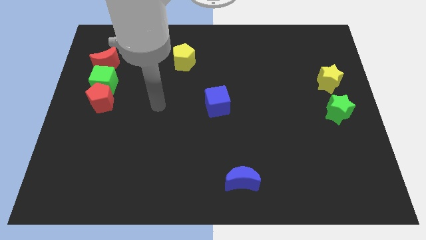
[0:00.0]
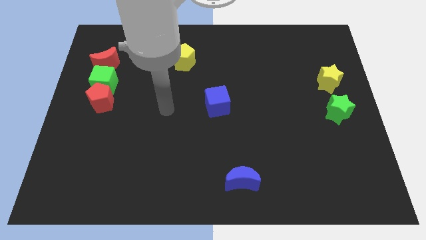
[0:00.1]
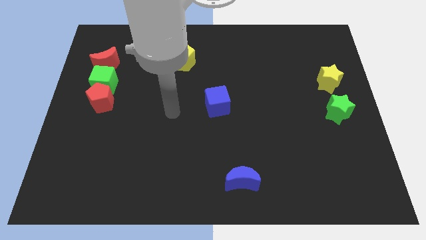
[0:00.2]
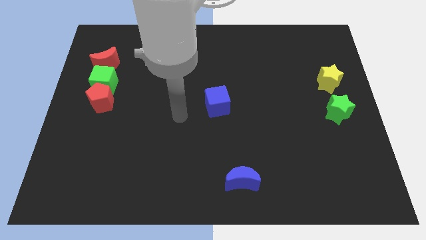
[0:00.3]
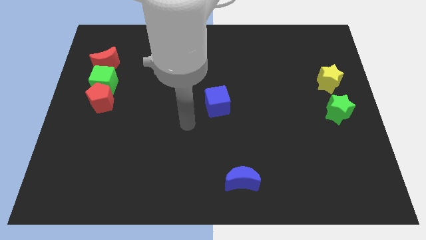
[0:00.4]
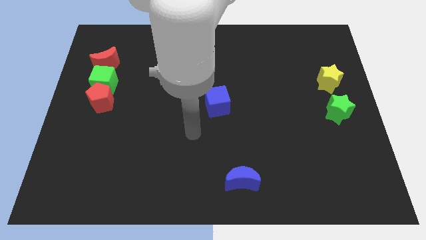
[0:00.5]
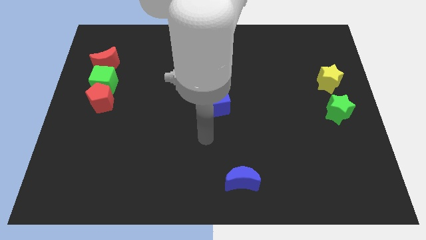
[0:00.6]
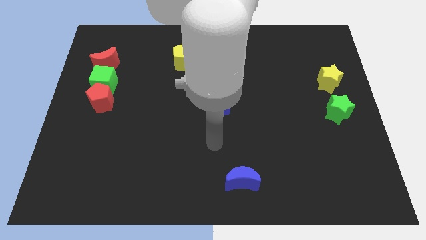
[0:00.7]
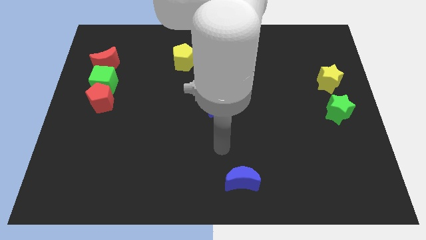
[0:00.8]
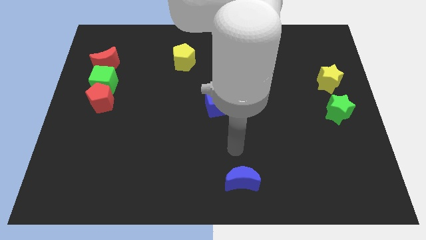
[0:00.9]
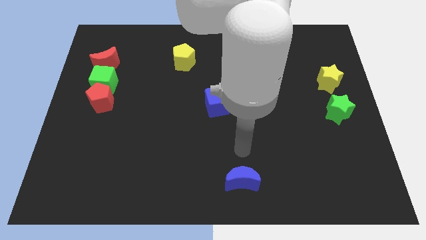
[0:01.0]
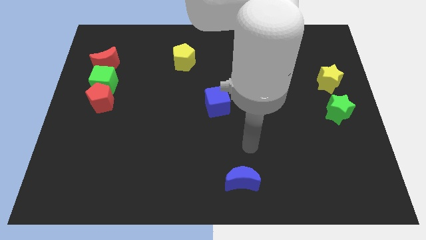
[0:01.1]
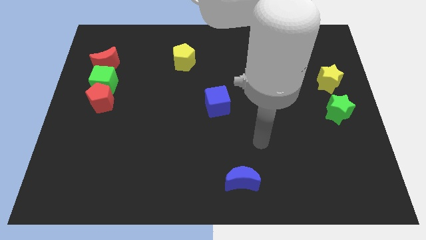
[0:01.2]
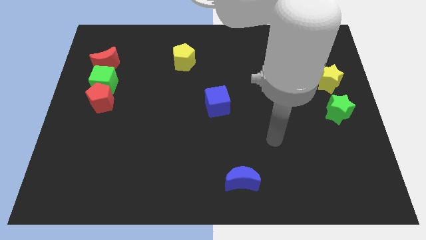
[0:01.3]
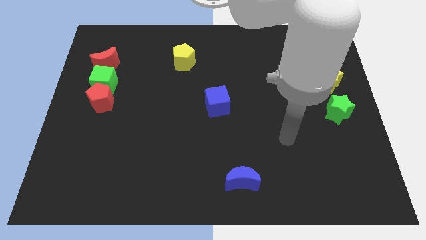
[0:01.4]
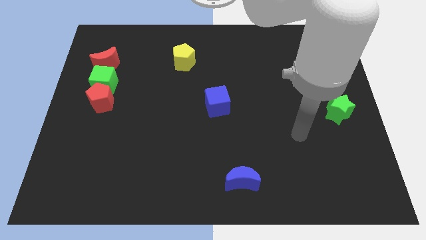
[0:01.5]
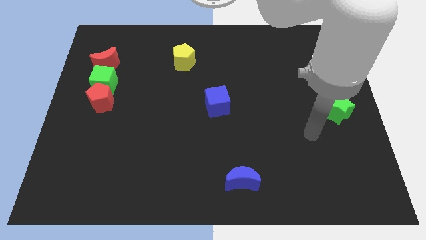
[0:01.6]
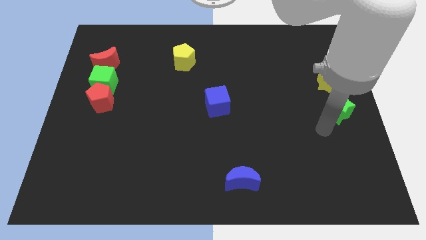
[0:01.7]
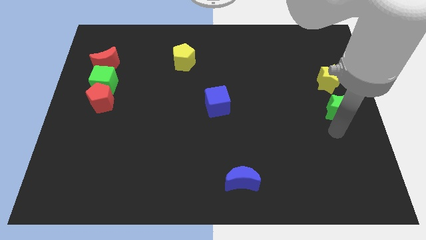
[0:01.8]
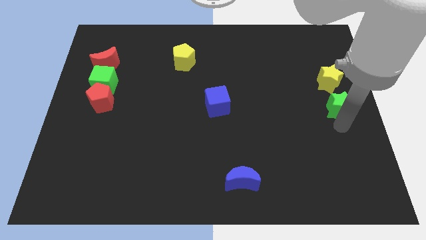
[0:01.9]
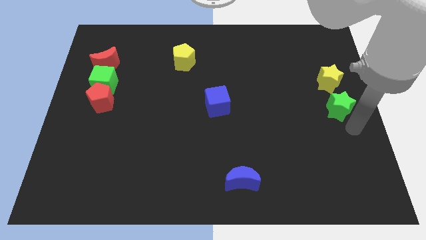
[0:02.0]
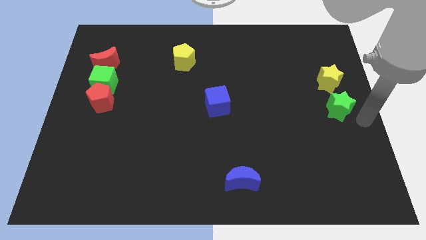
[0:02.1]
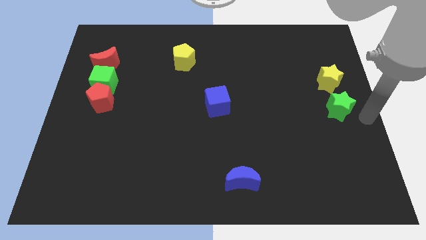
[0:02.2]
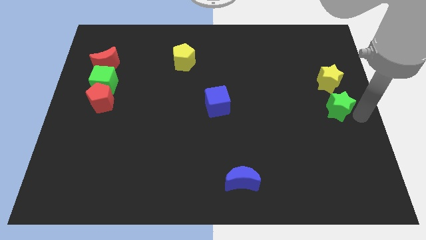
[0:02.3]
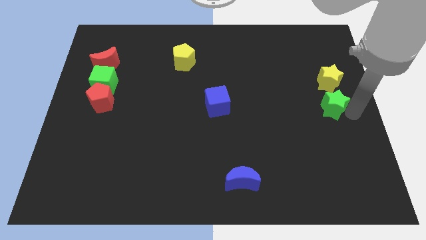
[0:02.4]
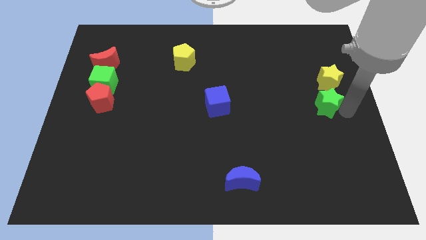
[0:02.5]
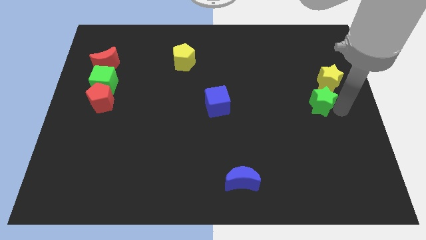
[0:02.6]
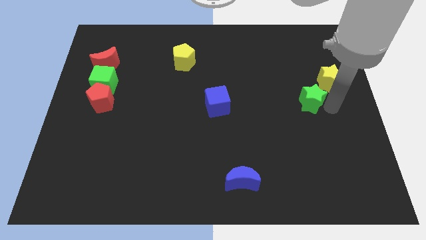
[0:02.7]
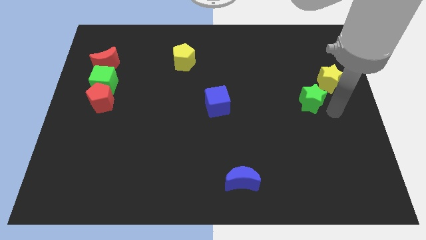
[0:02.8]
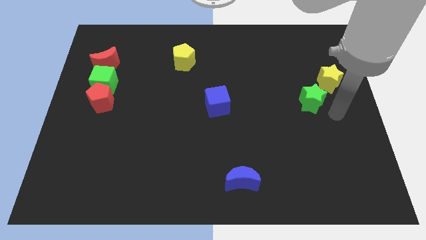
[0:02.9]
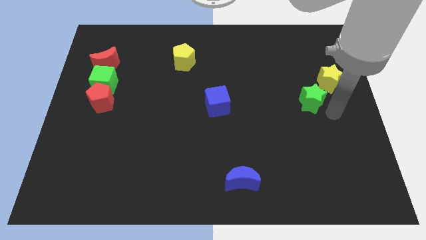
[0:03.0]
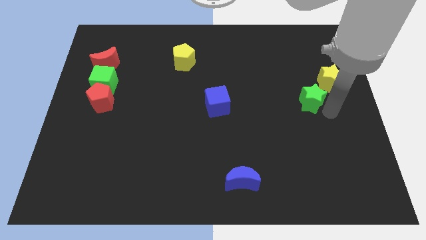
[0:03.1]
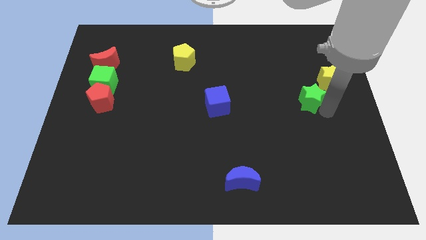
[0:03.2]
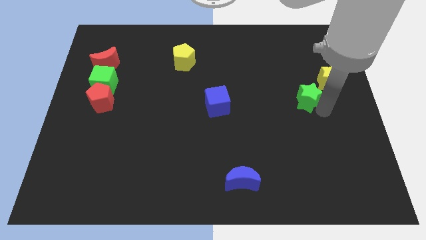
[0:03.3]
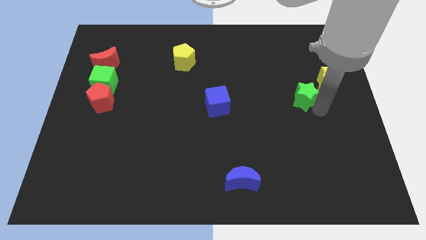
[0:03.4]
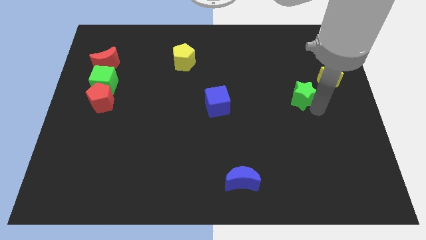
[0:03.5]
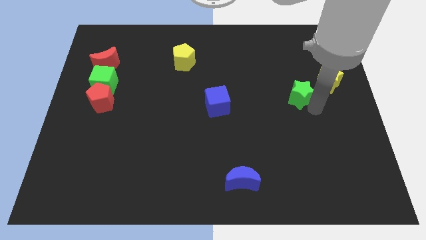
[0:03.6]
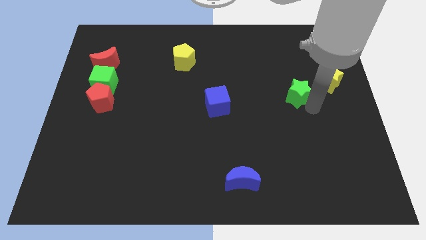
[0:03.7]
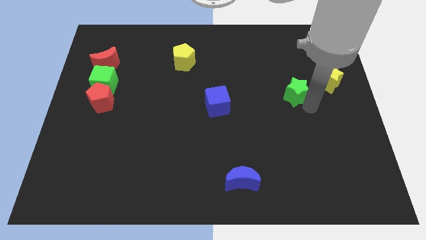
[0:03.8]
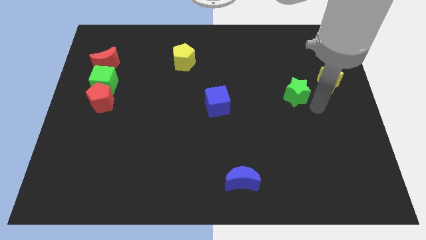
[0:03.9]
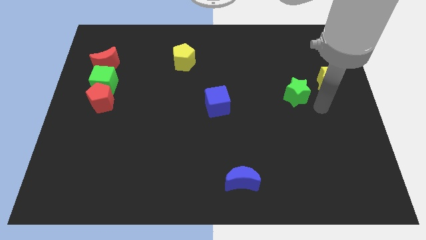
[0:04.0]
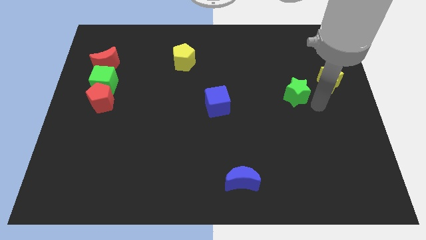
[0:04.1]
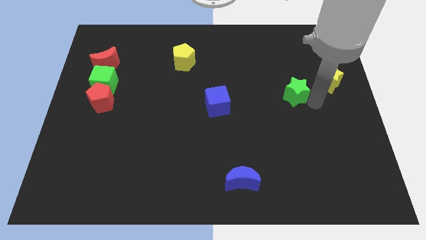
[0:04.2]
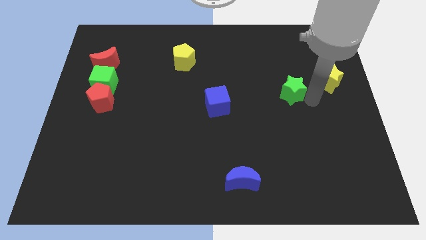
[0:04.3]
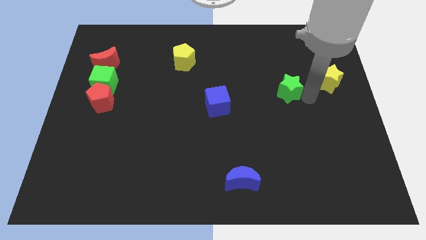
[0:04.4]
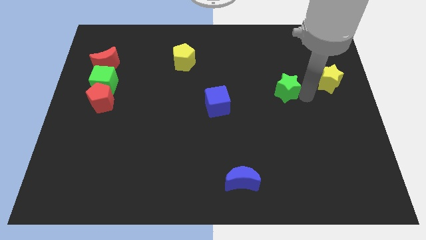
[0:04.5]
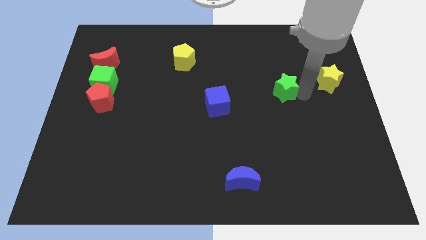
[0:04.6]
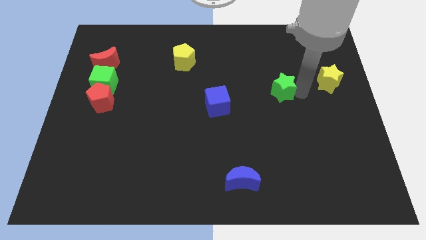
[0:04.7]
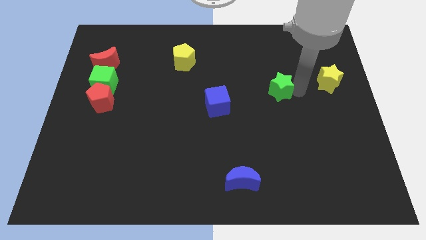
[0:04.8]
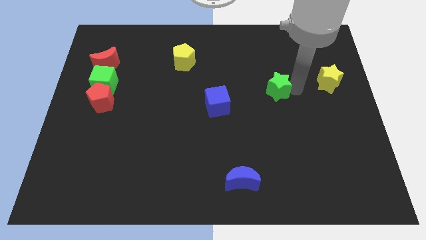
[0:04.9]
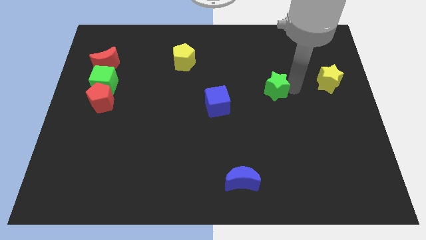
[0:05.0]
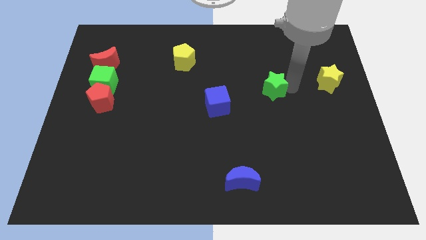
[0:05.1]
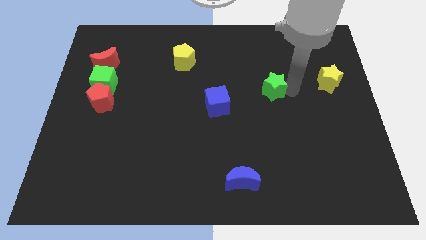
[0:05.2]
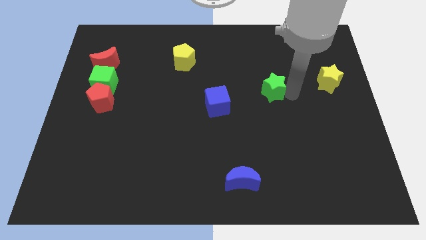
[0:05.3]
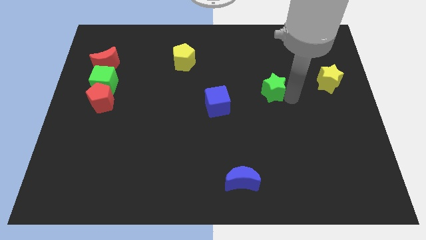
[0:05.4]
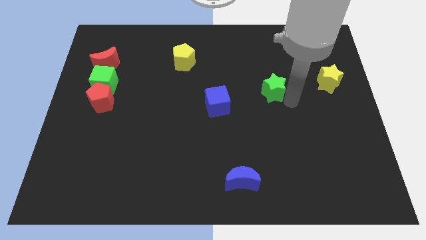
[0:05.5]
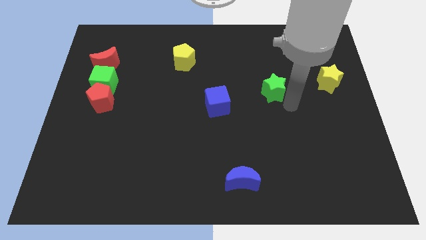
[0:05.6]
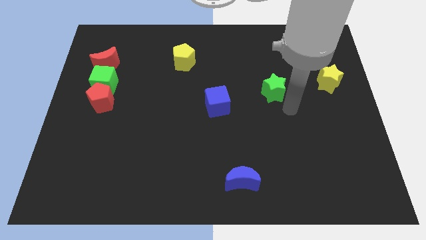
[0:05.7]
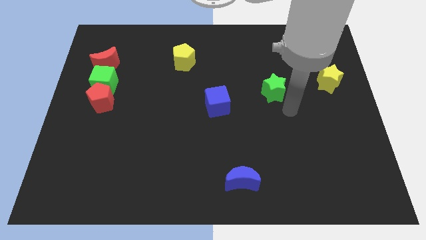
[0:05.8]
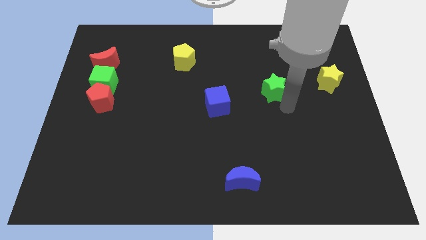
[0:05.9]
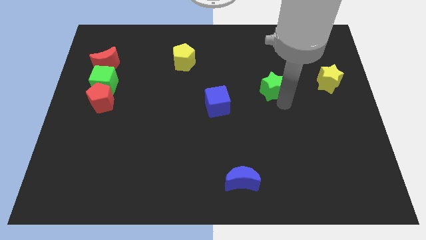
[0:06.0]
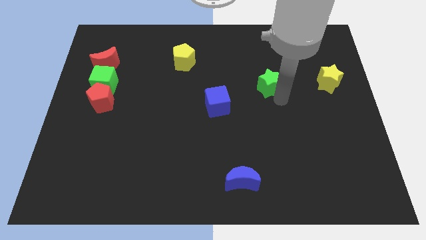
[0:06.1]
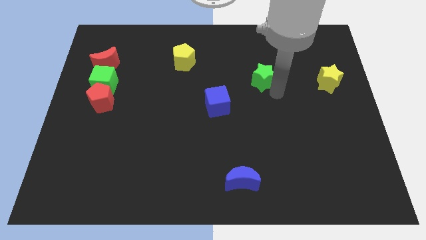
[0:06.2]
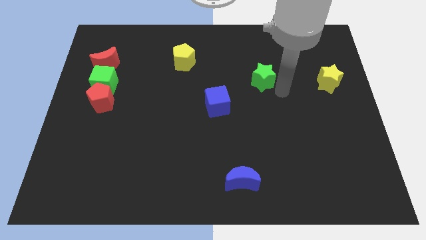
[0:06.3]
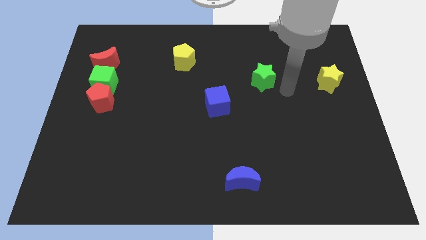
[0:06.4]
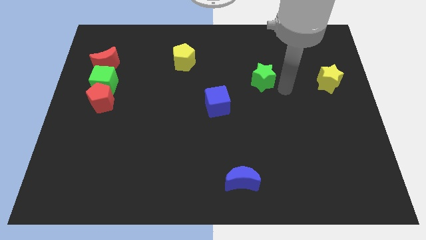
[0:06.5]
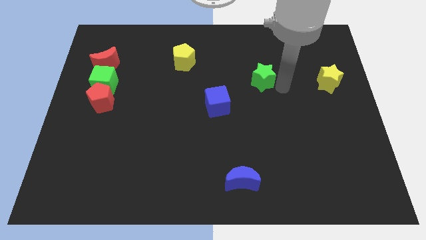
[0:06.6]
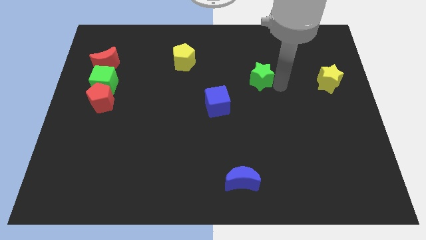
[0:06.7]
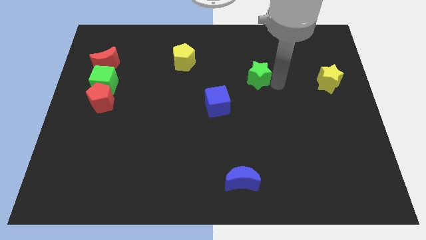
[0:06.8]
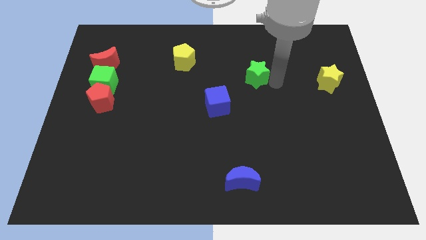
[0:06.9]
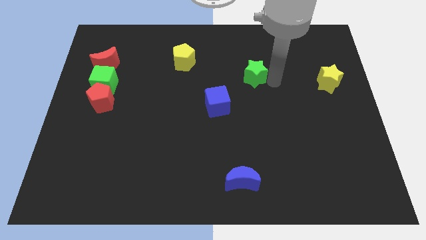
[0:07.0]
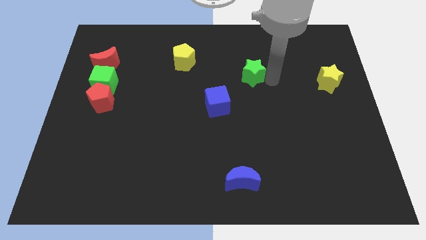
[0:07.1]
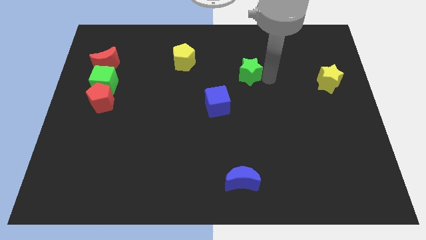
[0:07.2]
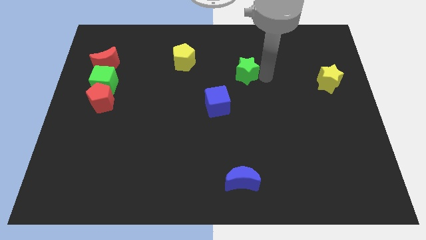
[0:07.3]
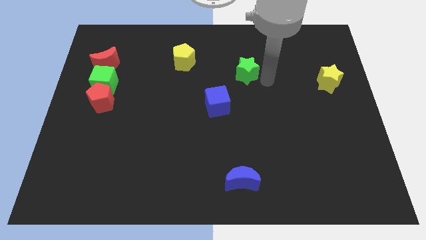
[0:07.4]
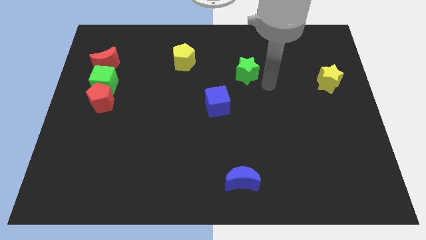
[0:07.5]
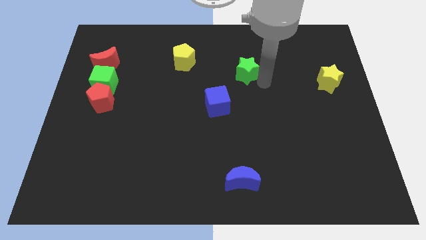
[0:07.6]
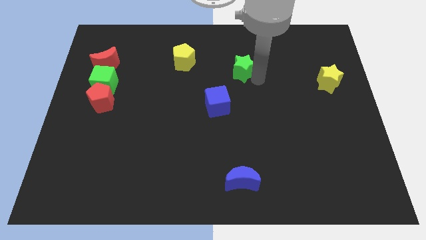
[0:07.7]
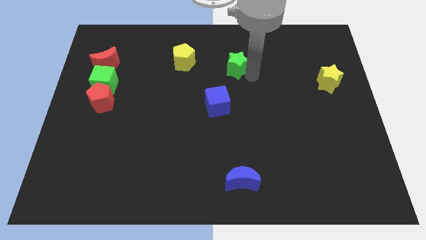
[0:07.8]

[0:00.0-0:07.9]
slide the green star to the right side of the yellow pentagon

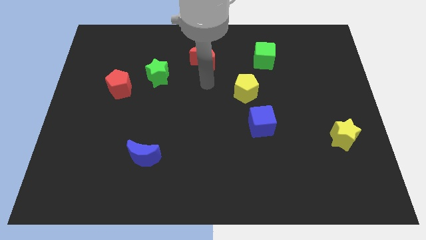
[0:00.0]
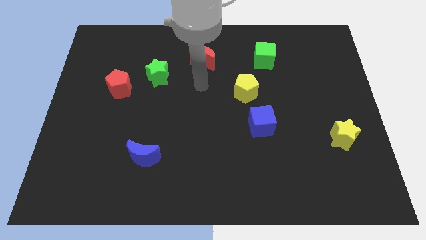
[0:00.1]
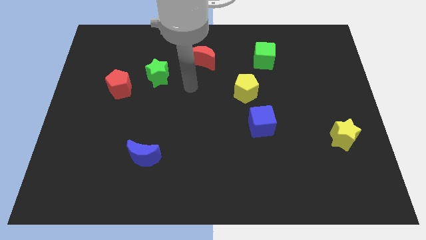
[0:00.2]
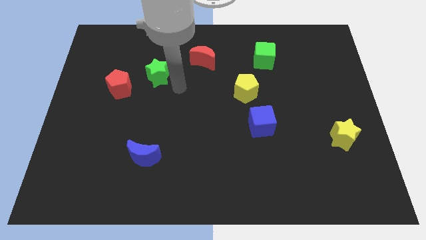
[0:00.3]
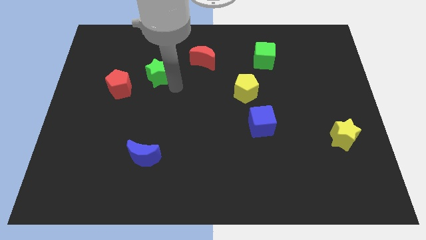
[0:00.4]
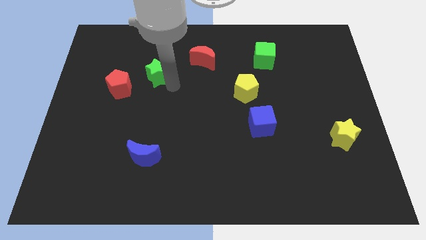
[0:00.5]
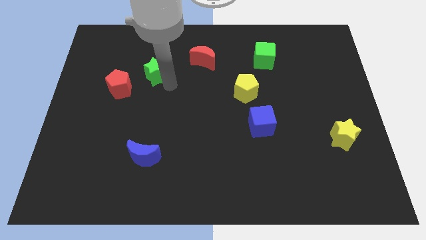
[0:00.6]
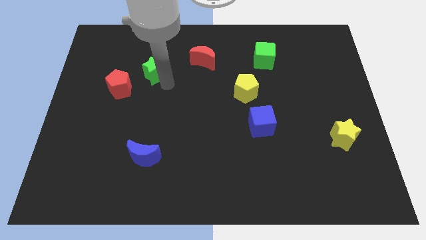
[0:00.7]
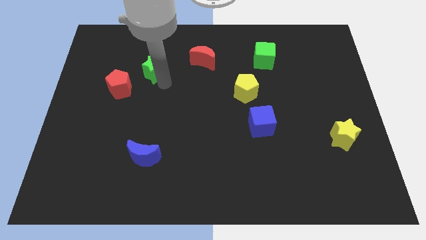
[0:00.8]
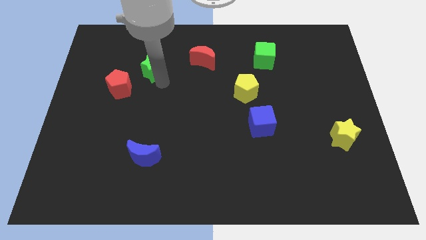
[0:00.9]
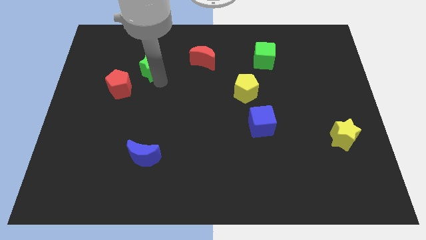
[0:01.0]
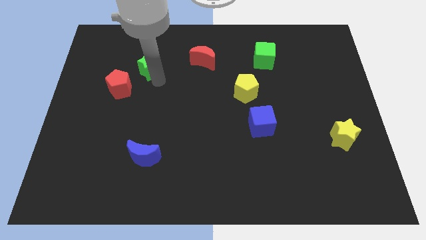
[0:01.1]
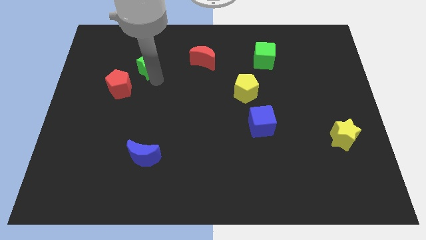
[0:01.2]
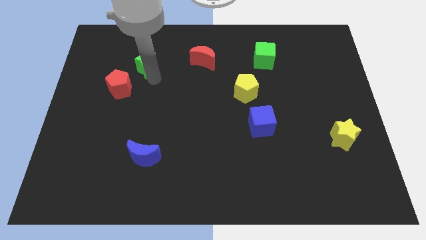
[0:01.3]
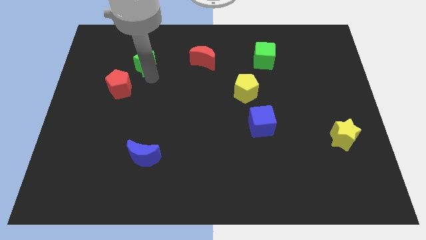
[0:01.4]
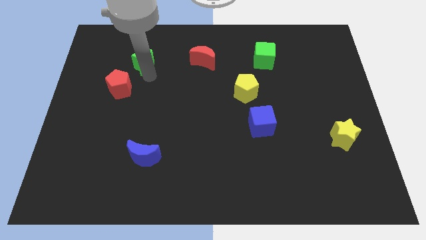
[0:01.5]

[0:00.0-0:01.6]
put the green star to the top of the red pentagon
